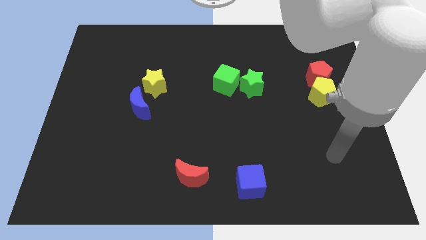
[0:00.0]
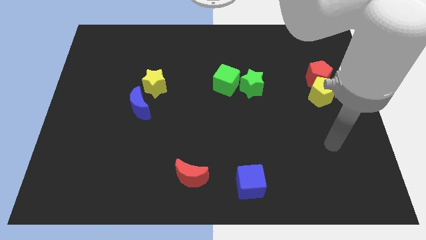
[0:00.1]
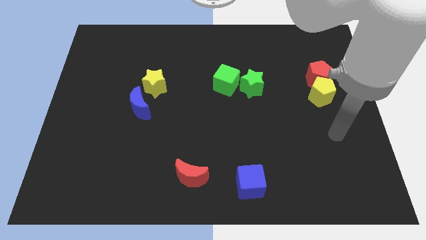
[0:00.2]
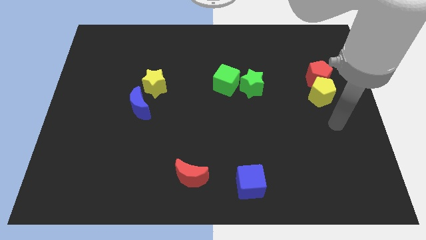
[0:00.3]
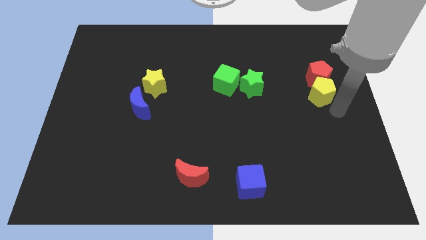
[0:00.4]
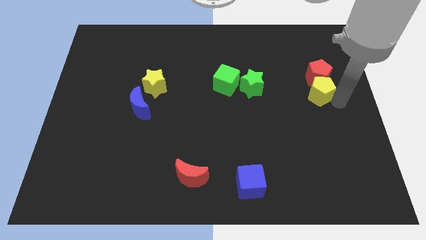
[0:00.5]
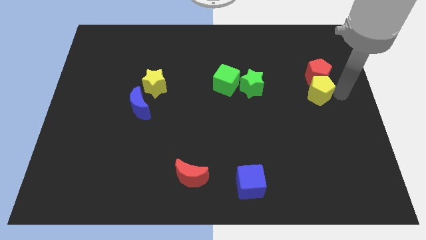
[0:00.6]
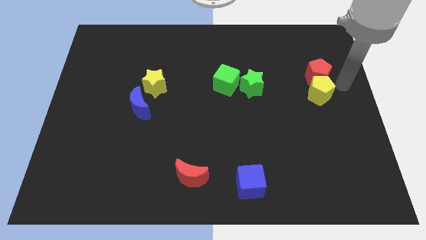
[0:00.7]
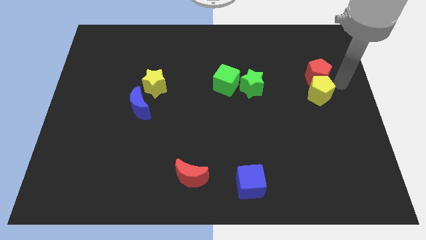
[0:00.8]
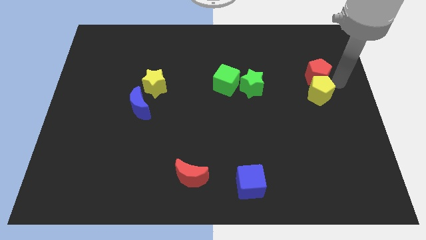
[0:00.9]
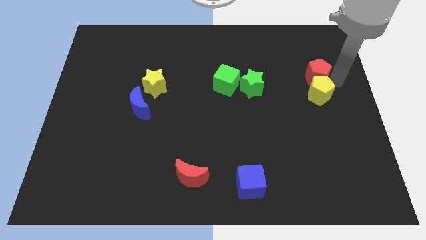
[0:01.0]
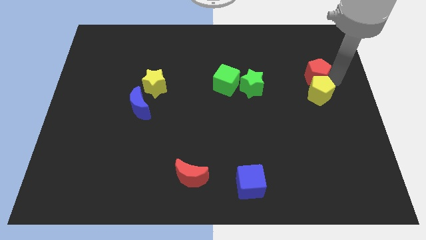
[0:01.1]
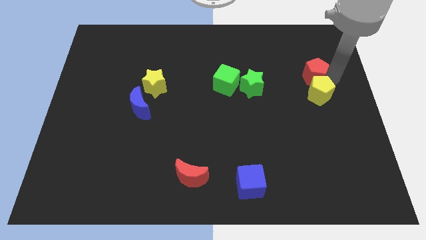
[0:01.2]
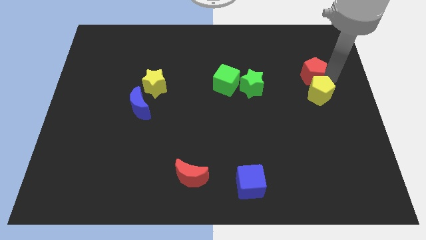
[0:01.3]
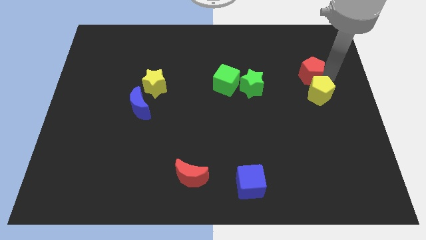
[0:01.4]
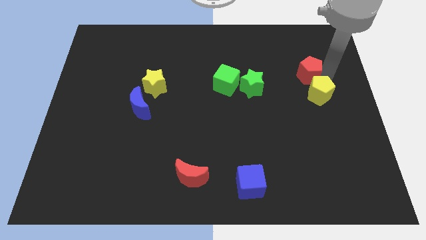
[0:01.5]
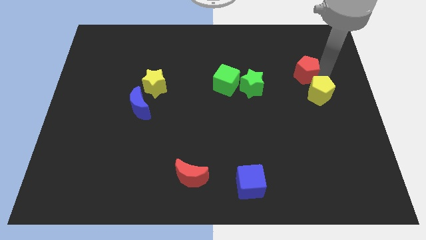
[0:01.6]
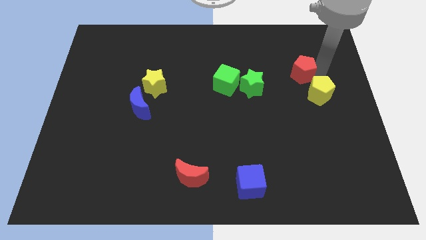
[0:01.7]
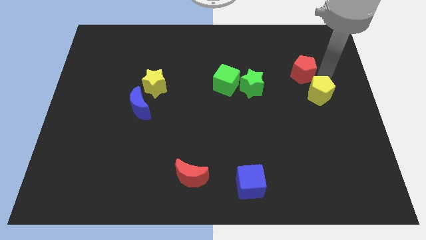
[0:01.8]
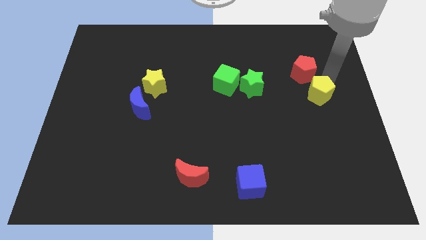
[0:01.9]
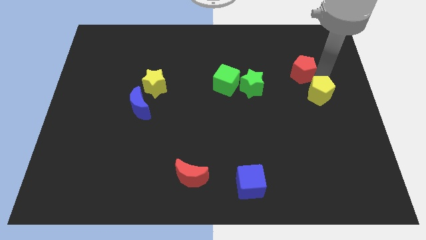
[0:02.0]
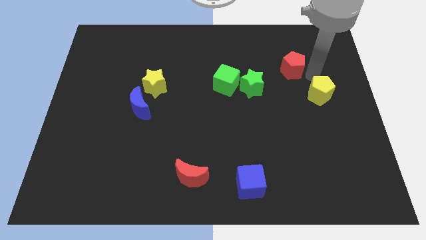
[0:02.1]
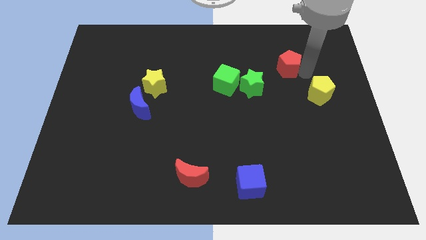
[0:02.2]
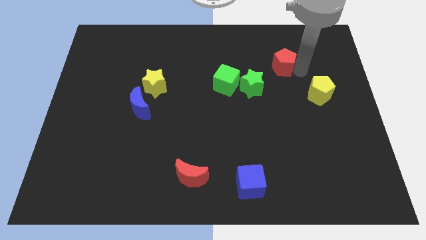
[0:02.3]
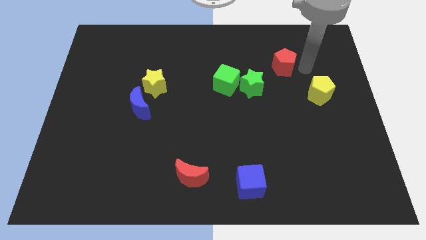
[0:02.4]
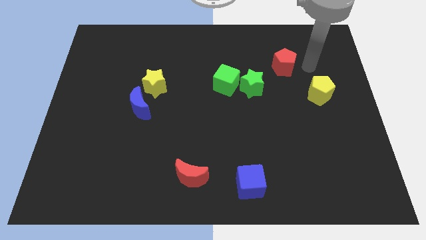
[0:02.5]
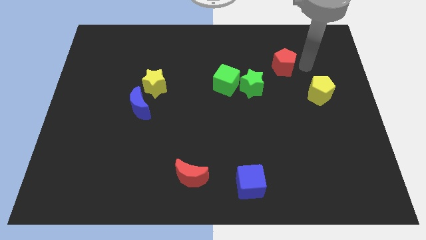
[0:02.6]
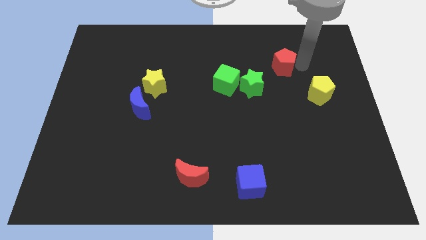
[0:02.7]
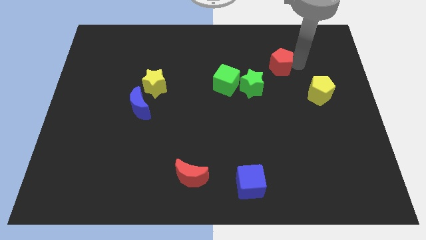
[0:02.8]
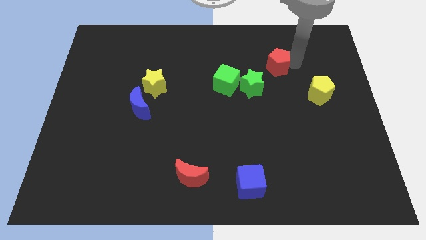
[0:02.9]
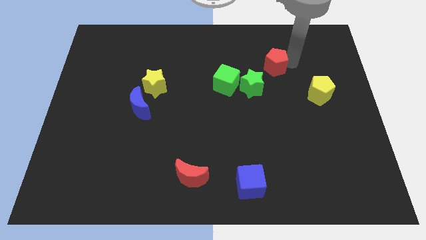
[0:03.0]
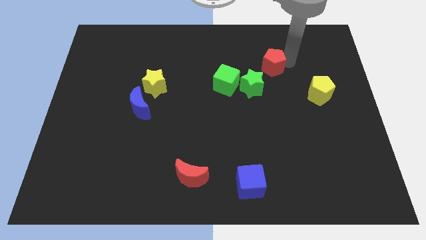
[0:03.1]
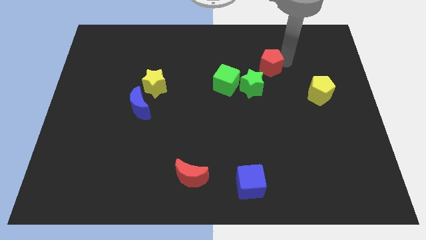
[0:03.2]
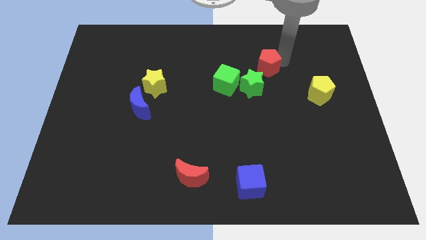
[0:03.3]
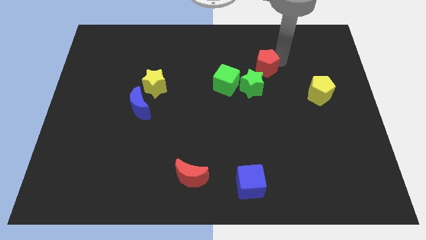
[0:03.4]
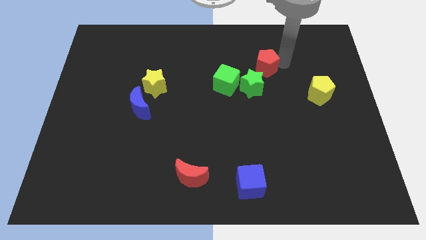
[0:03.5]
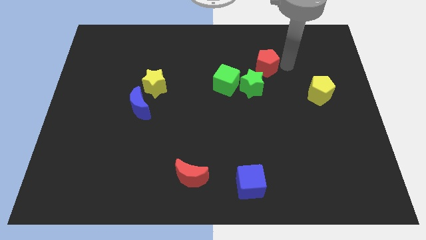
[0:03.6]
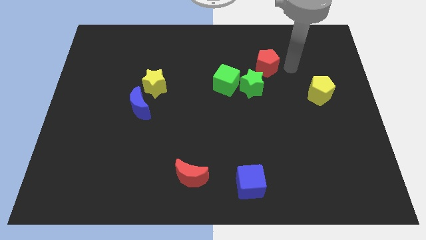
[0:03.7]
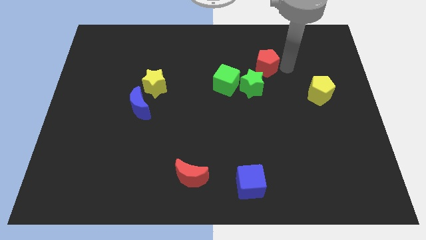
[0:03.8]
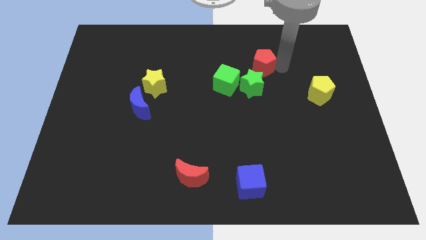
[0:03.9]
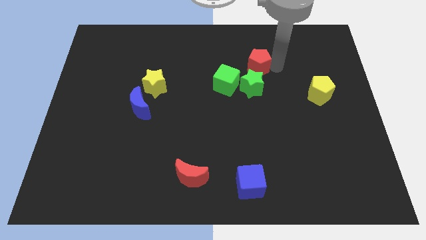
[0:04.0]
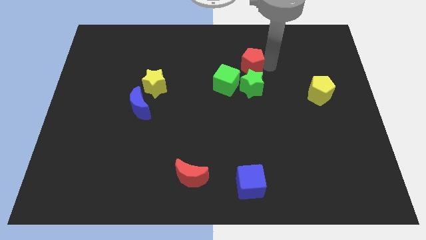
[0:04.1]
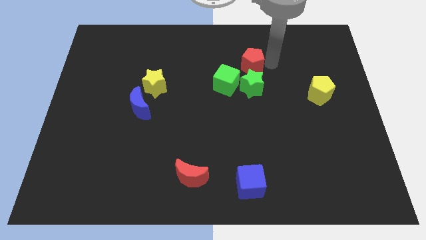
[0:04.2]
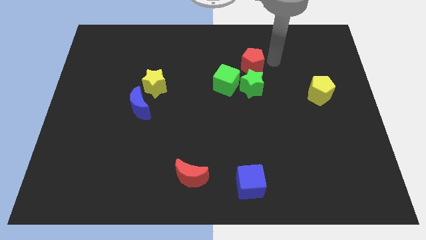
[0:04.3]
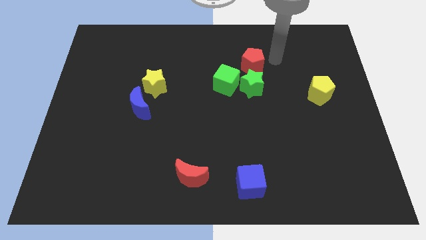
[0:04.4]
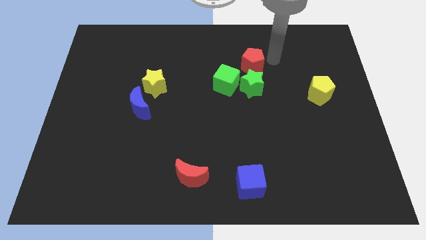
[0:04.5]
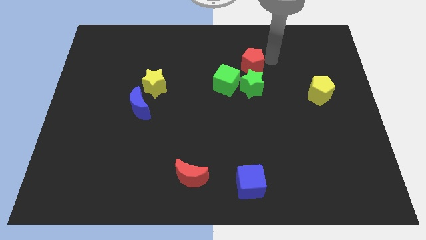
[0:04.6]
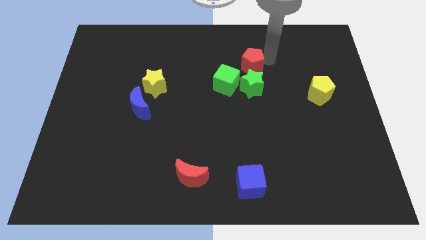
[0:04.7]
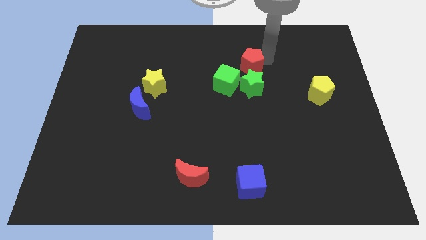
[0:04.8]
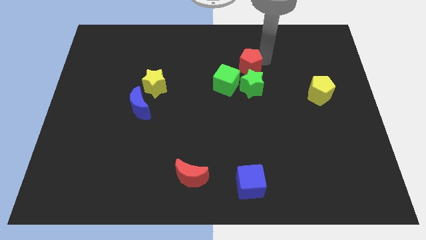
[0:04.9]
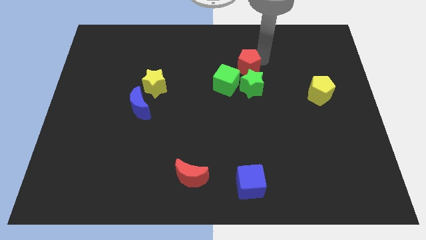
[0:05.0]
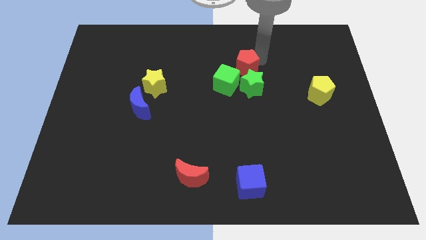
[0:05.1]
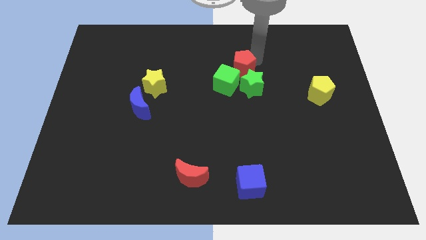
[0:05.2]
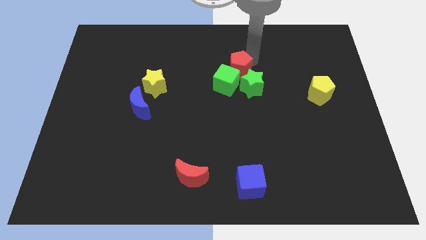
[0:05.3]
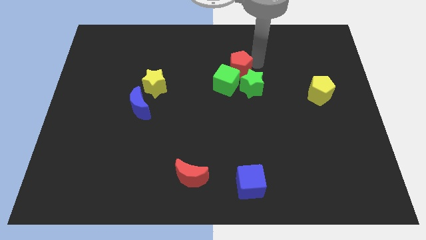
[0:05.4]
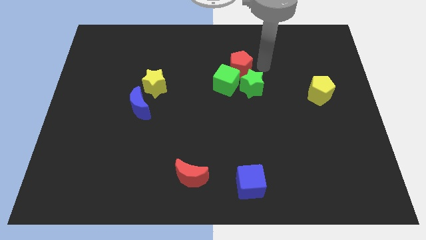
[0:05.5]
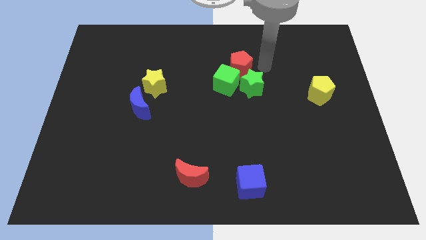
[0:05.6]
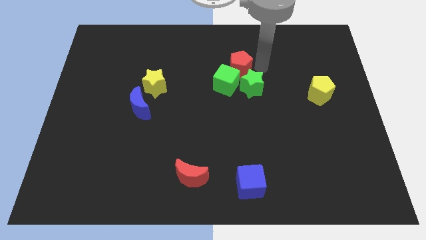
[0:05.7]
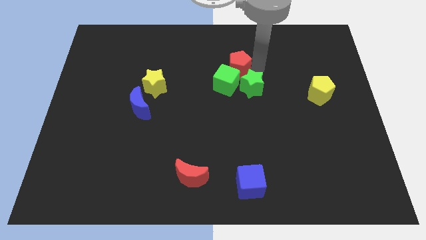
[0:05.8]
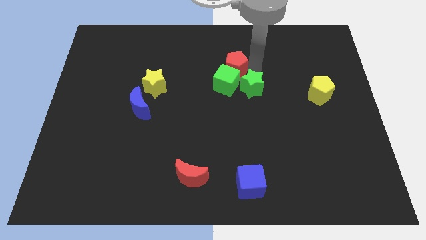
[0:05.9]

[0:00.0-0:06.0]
push the red pentagon left

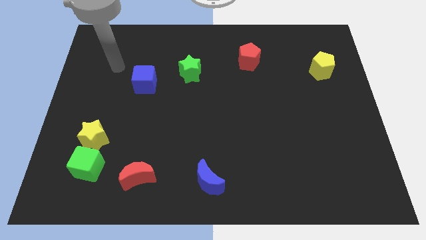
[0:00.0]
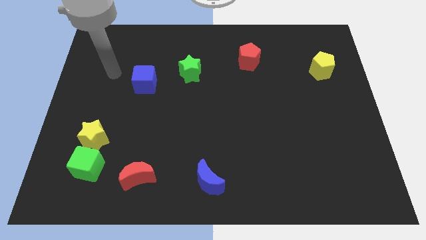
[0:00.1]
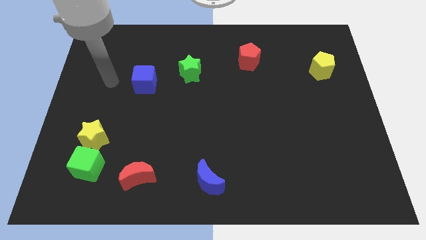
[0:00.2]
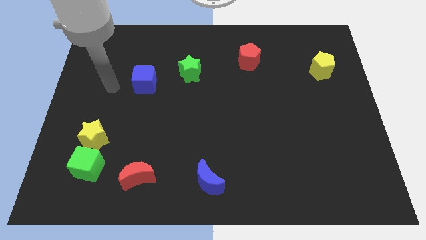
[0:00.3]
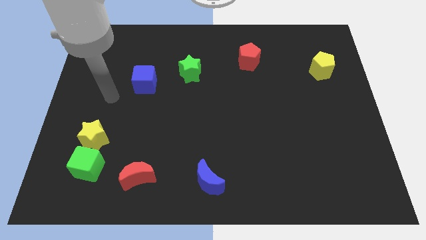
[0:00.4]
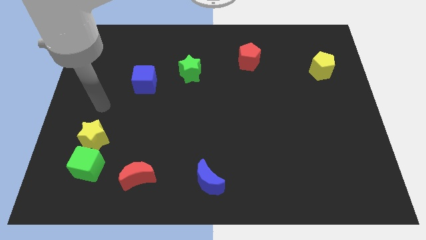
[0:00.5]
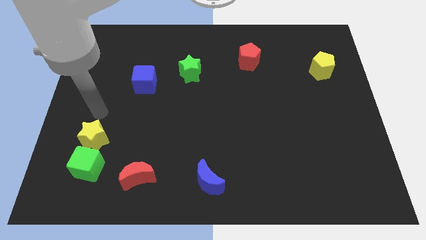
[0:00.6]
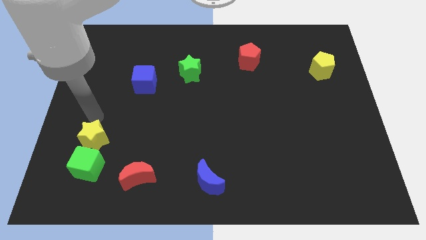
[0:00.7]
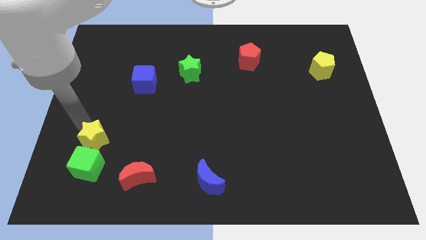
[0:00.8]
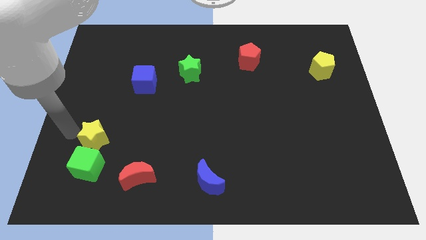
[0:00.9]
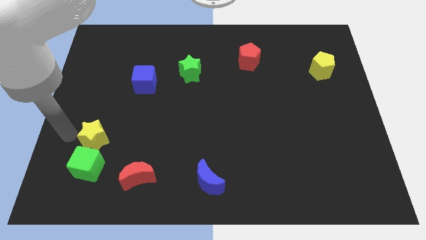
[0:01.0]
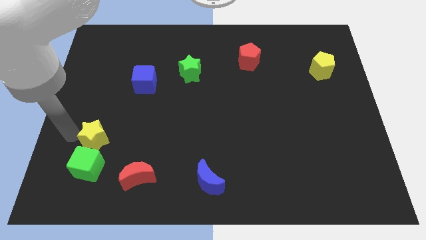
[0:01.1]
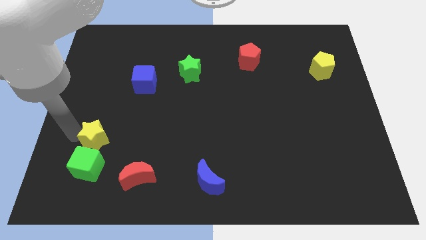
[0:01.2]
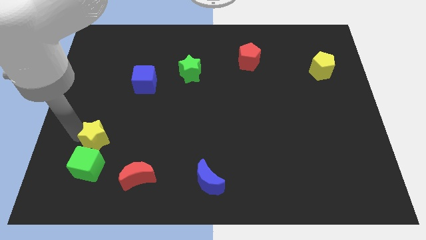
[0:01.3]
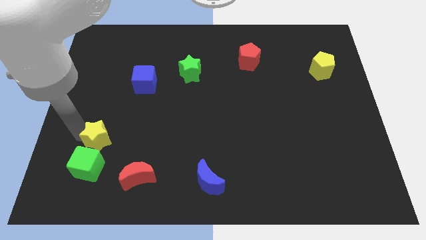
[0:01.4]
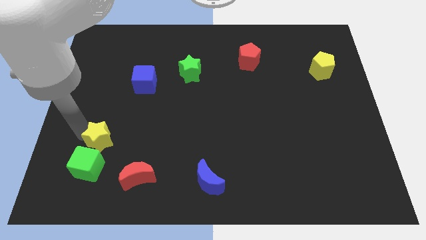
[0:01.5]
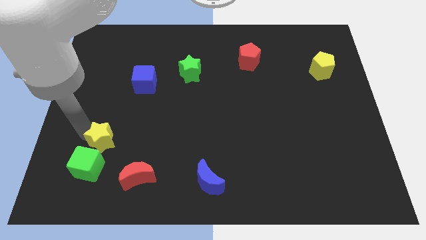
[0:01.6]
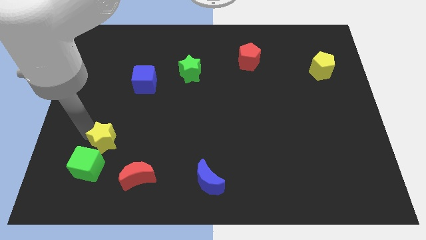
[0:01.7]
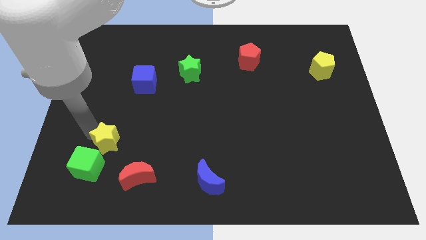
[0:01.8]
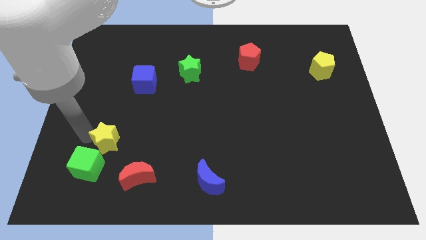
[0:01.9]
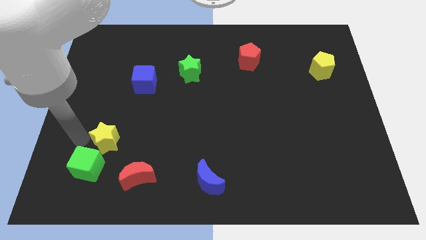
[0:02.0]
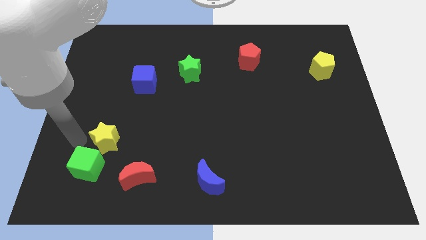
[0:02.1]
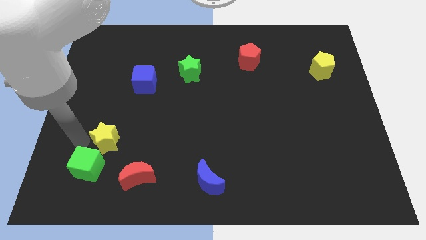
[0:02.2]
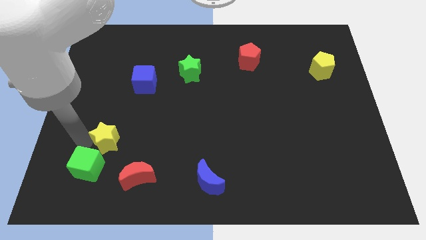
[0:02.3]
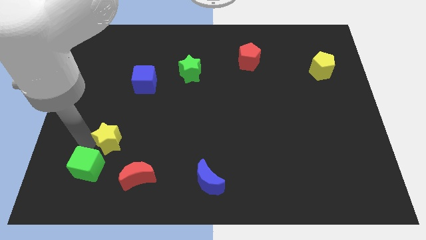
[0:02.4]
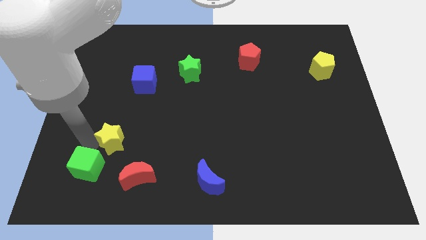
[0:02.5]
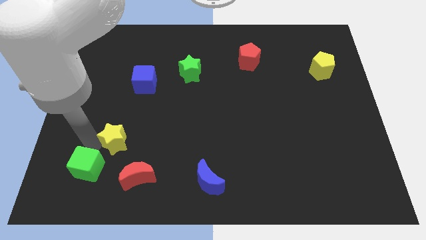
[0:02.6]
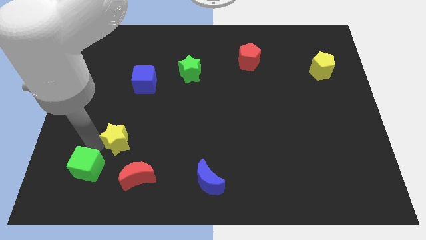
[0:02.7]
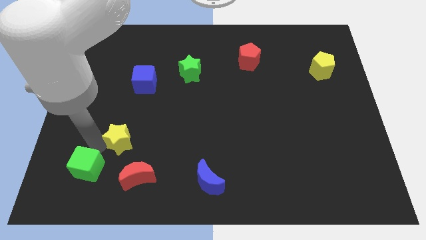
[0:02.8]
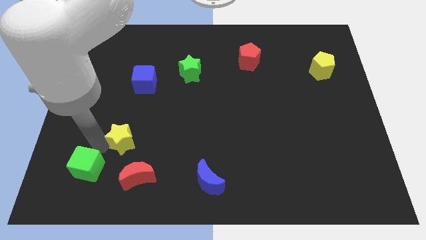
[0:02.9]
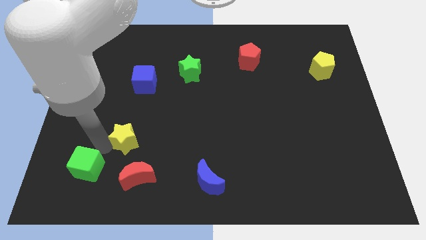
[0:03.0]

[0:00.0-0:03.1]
slightly slide the yellow star right
